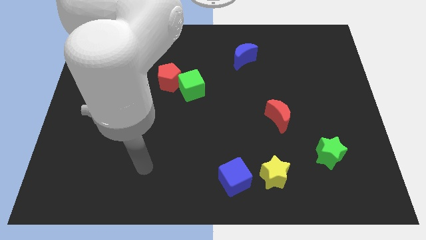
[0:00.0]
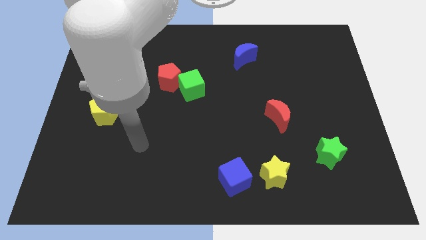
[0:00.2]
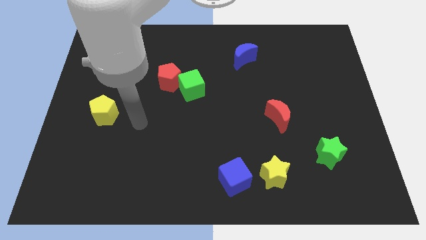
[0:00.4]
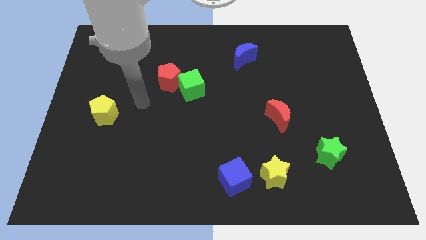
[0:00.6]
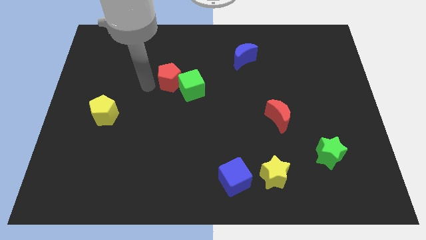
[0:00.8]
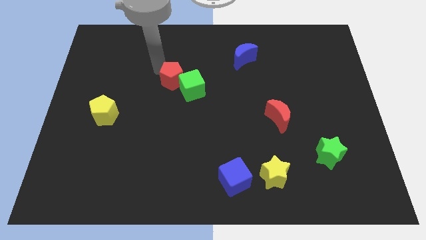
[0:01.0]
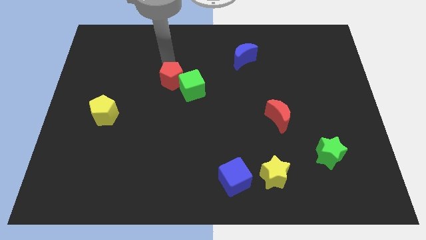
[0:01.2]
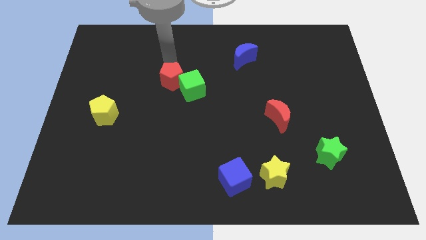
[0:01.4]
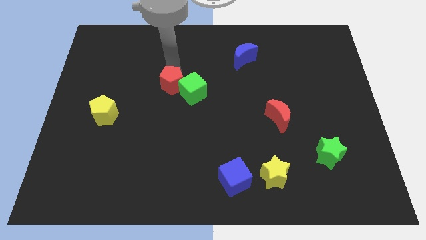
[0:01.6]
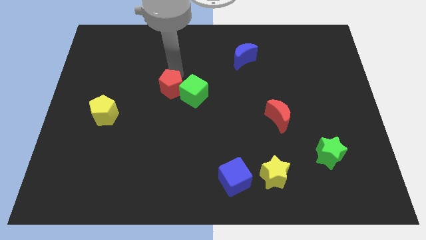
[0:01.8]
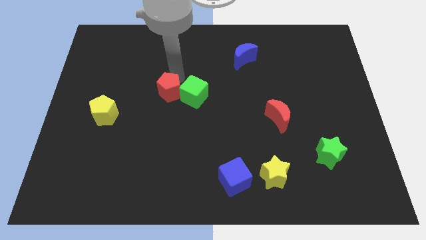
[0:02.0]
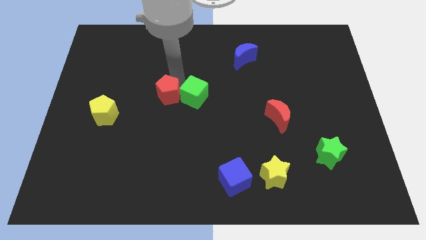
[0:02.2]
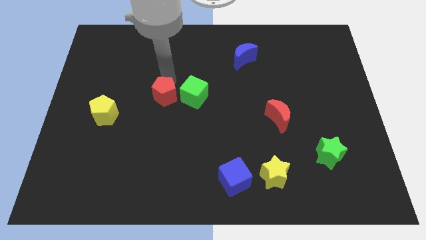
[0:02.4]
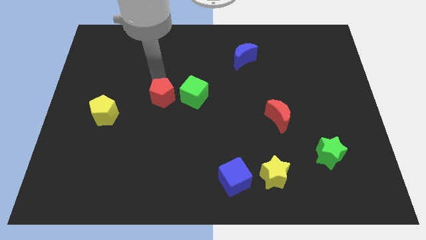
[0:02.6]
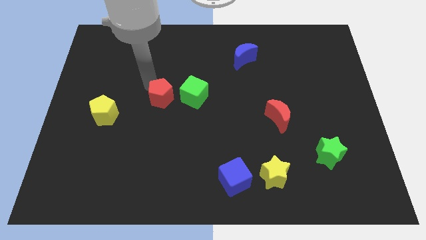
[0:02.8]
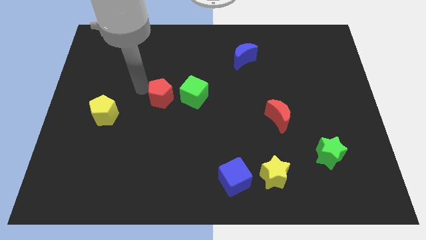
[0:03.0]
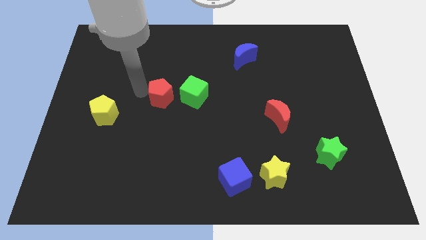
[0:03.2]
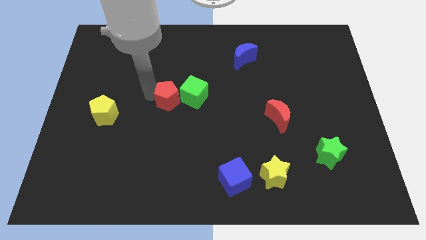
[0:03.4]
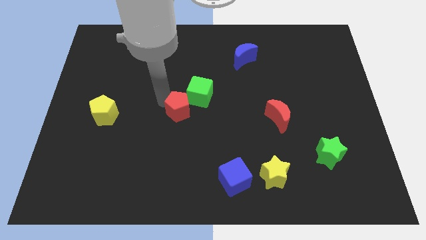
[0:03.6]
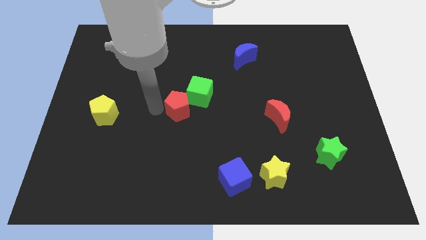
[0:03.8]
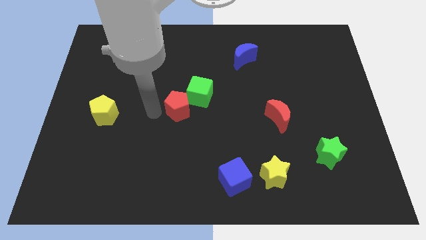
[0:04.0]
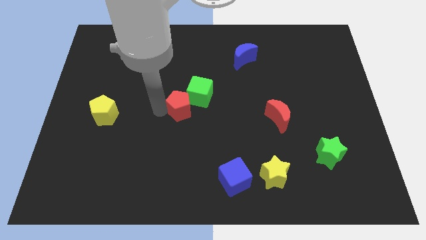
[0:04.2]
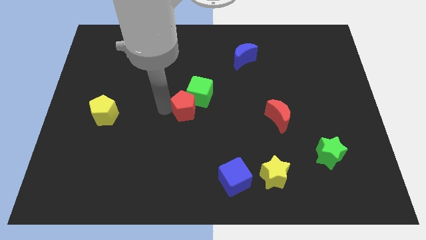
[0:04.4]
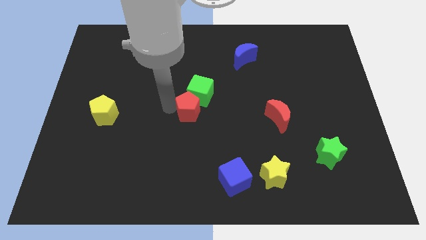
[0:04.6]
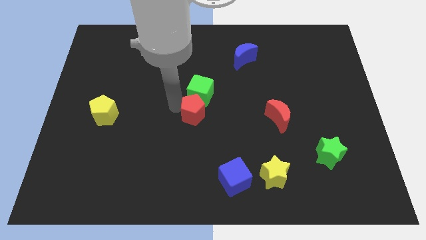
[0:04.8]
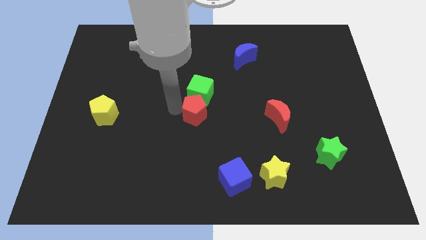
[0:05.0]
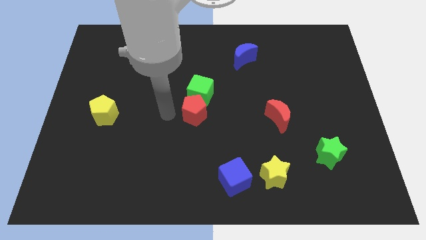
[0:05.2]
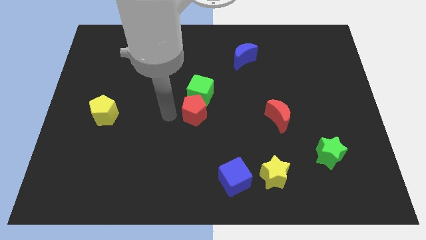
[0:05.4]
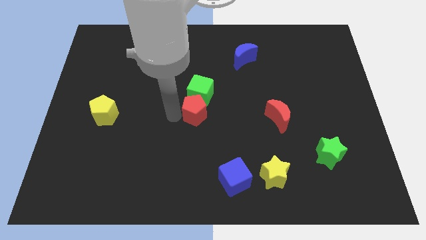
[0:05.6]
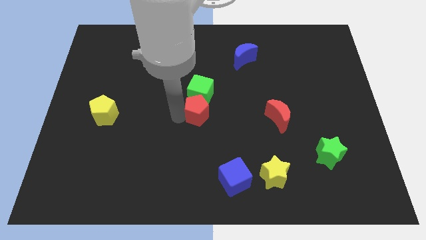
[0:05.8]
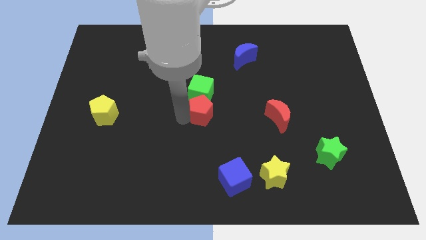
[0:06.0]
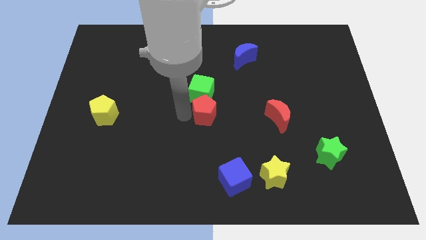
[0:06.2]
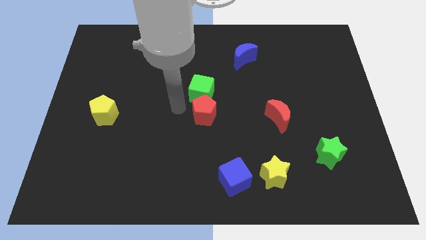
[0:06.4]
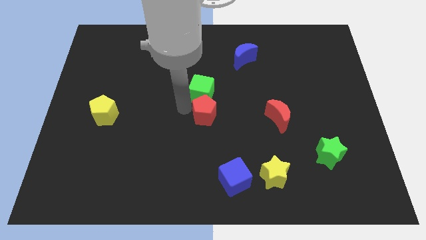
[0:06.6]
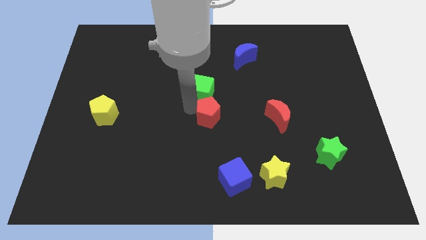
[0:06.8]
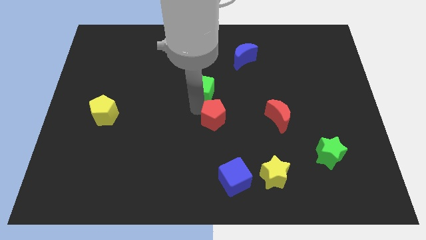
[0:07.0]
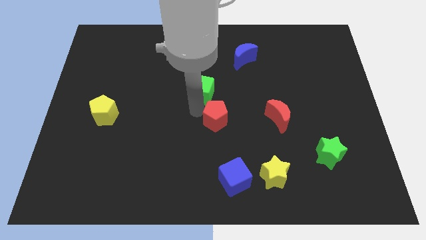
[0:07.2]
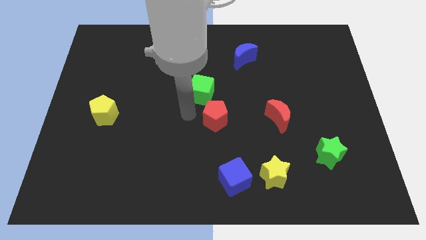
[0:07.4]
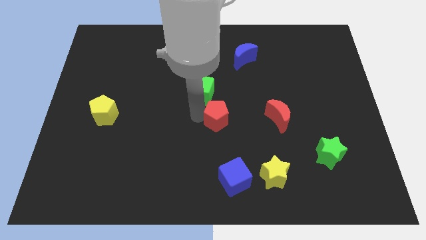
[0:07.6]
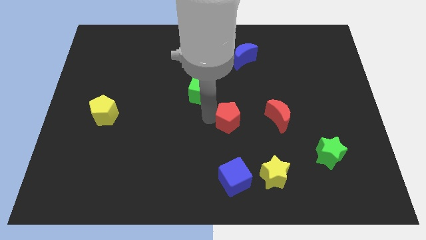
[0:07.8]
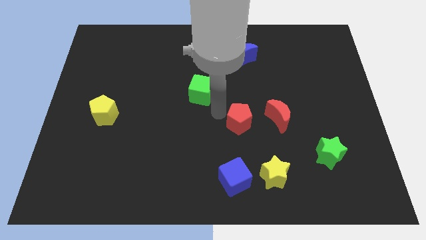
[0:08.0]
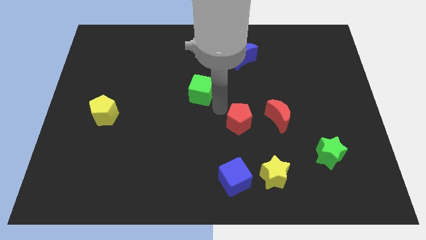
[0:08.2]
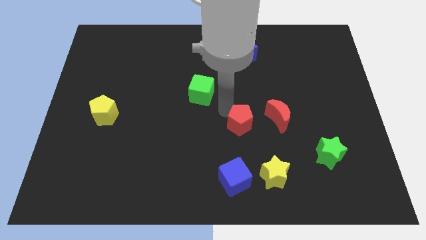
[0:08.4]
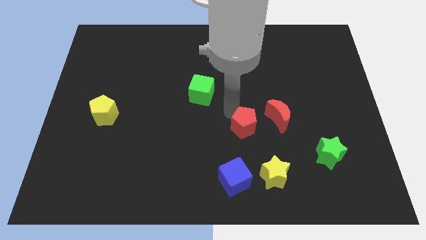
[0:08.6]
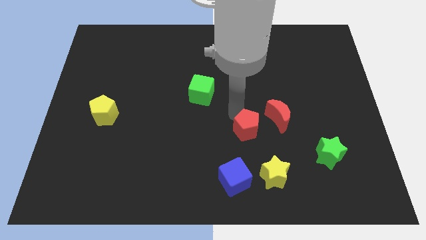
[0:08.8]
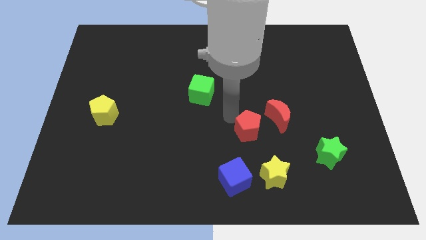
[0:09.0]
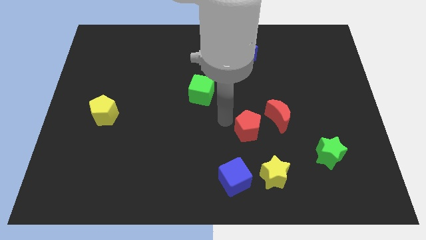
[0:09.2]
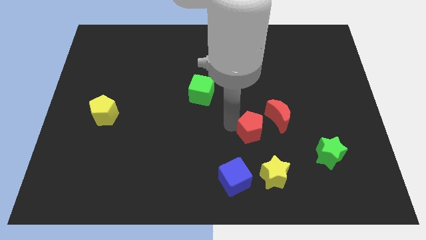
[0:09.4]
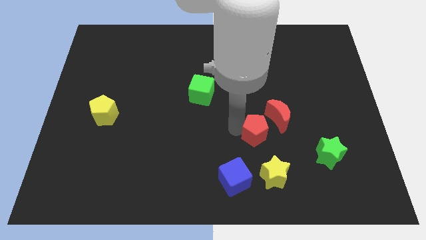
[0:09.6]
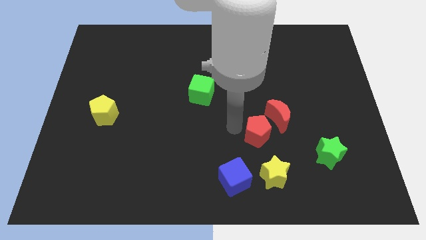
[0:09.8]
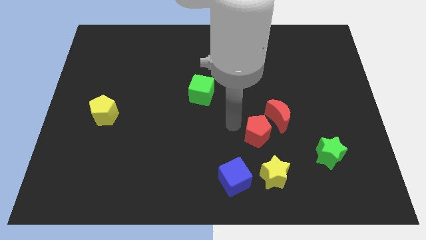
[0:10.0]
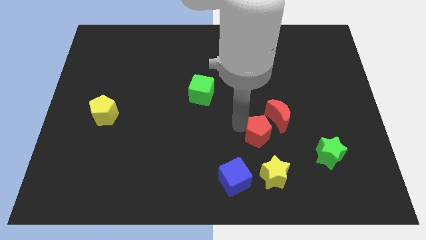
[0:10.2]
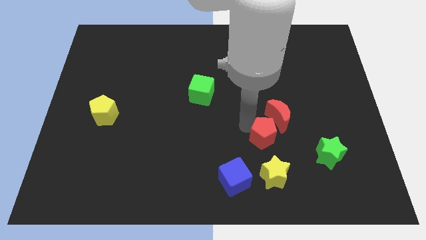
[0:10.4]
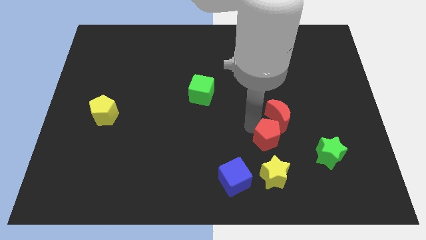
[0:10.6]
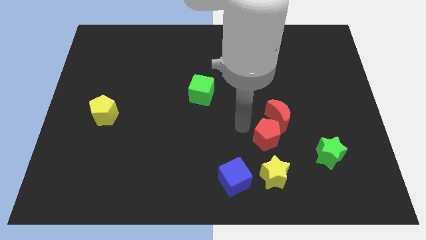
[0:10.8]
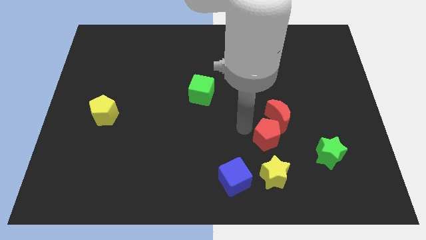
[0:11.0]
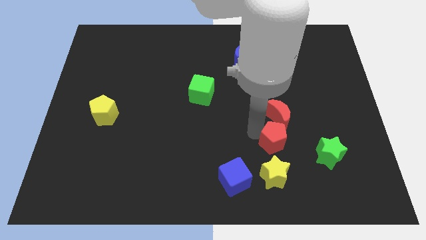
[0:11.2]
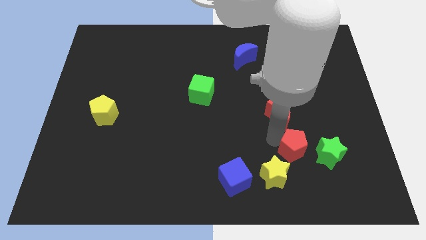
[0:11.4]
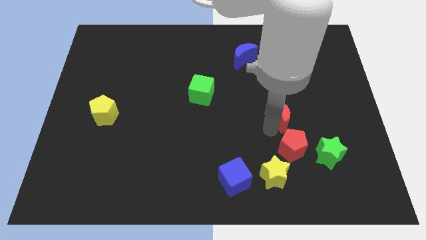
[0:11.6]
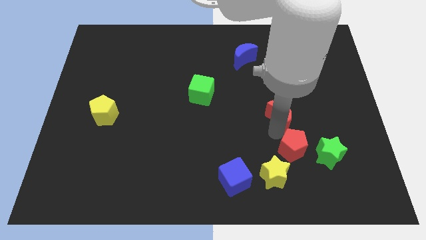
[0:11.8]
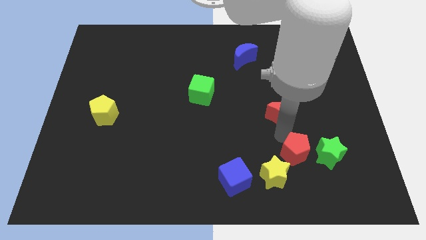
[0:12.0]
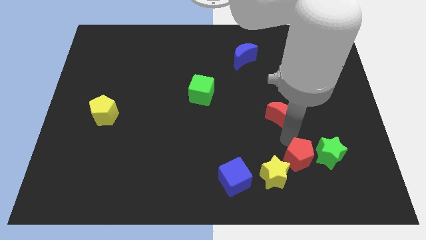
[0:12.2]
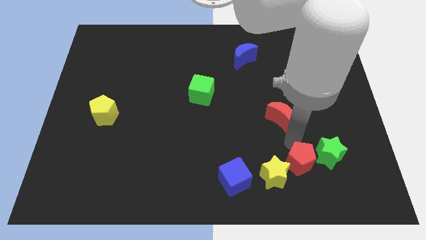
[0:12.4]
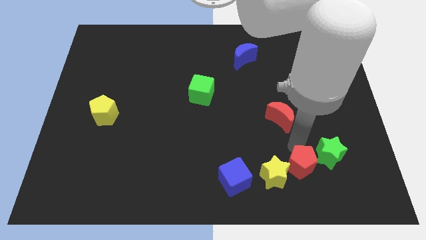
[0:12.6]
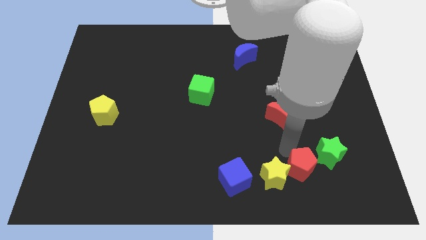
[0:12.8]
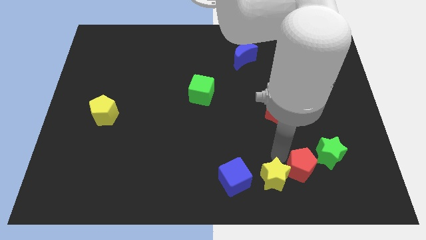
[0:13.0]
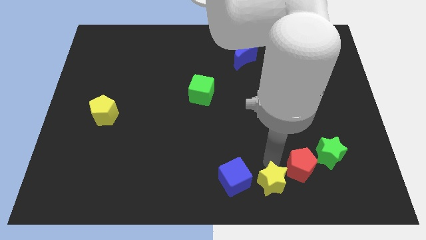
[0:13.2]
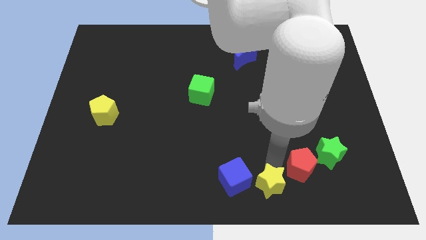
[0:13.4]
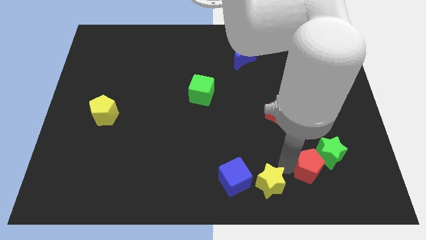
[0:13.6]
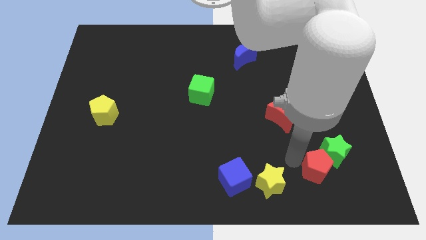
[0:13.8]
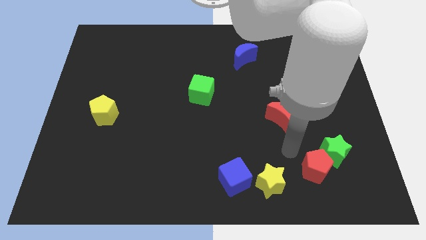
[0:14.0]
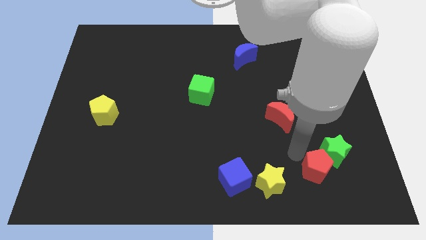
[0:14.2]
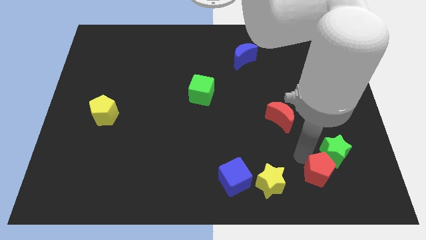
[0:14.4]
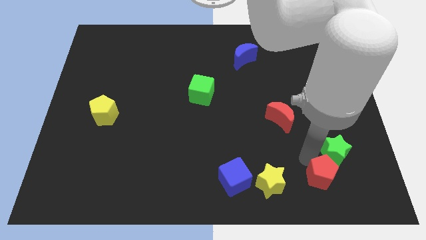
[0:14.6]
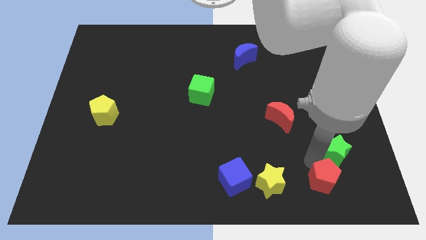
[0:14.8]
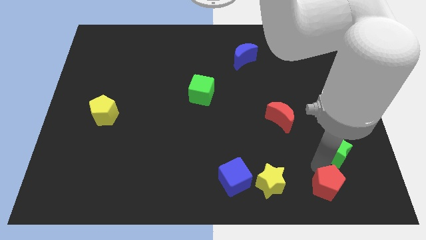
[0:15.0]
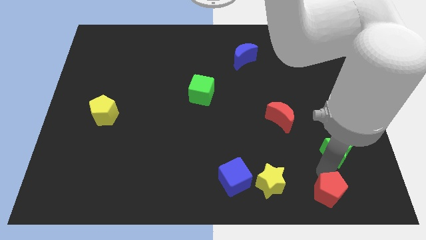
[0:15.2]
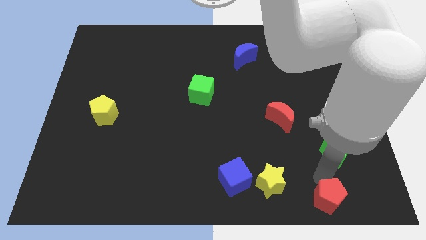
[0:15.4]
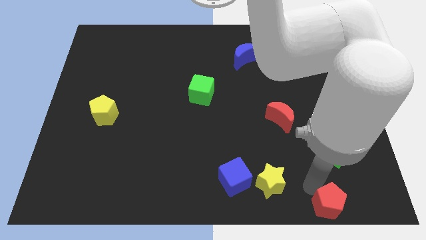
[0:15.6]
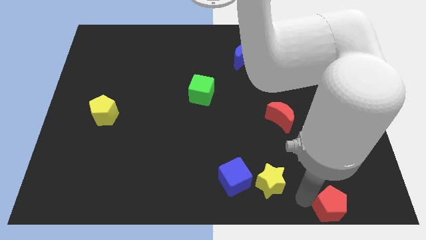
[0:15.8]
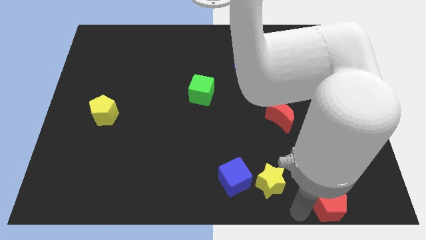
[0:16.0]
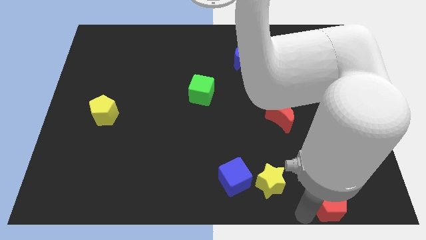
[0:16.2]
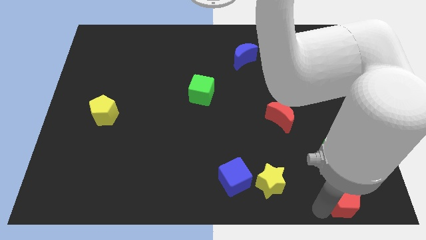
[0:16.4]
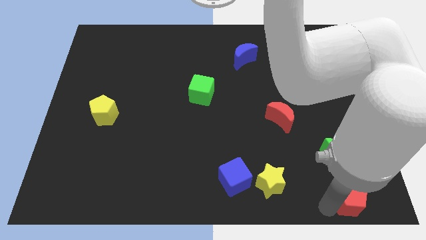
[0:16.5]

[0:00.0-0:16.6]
slide the red pentagon to the bottom right corner
